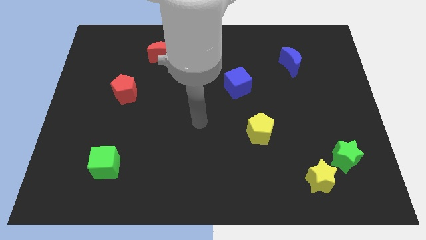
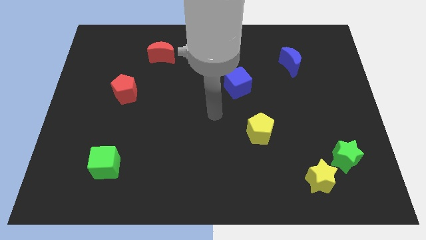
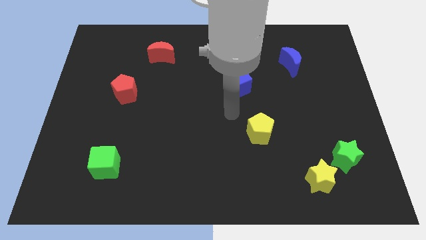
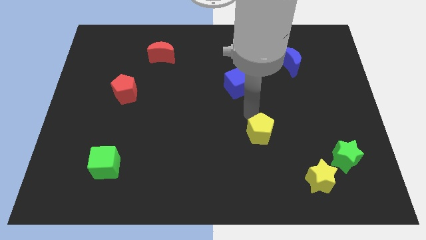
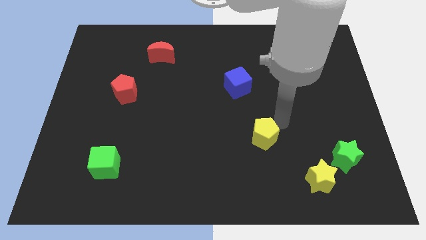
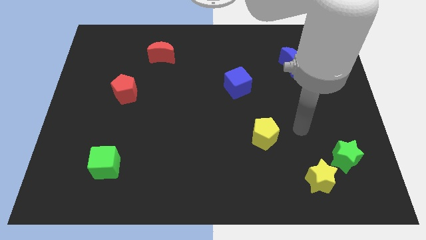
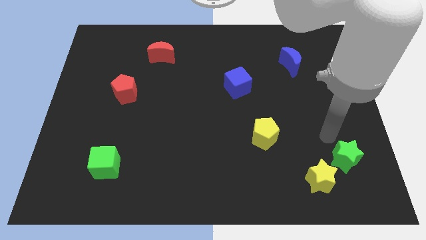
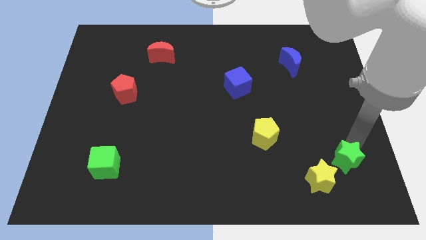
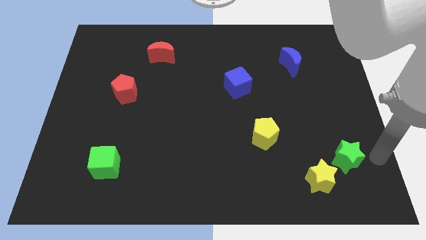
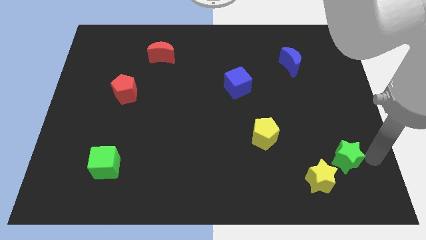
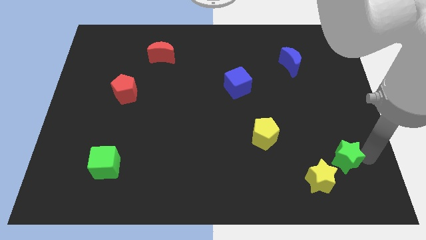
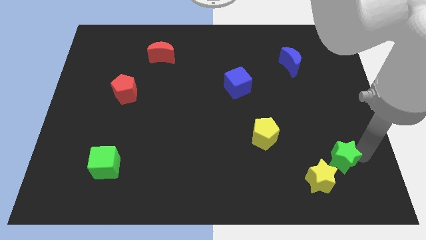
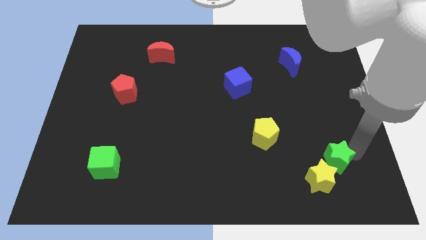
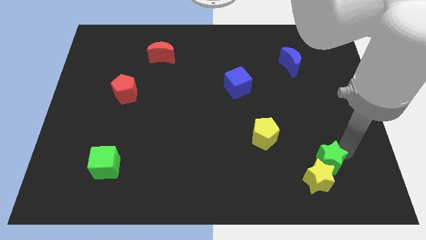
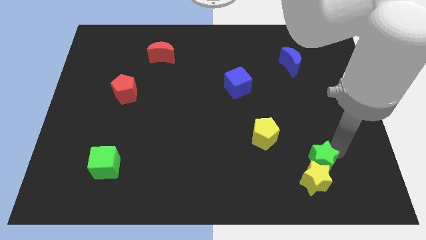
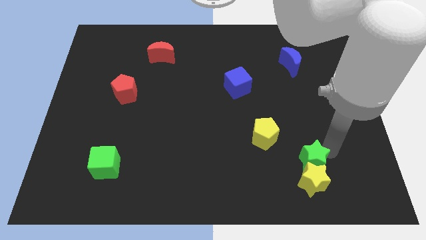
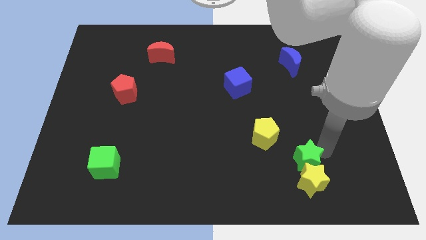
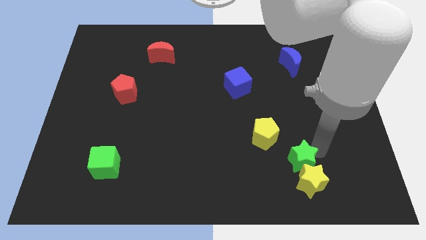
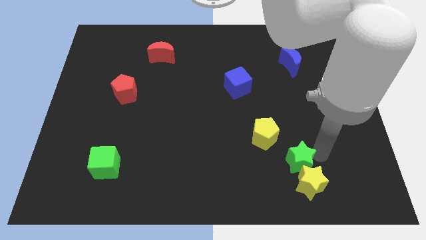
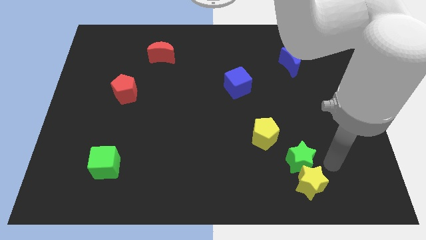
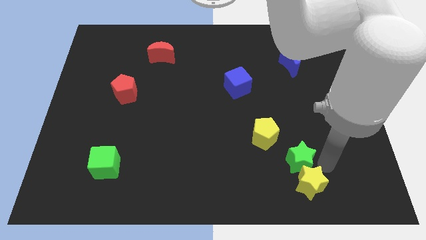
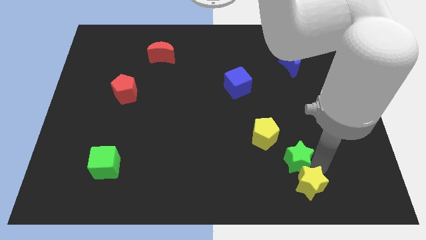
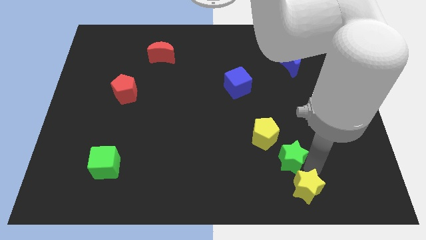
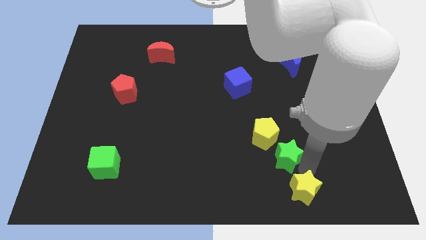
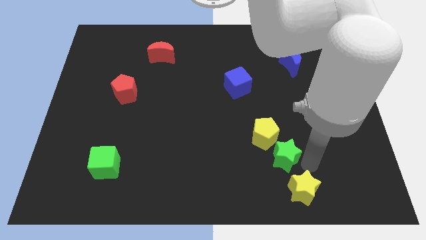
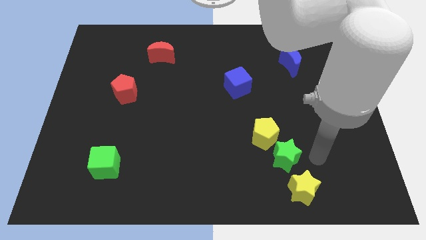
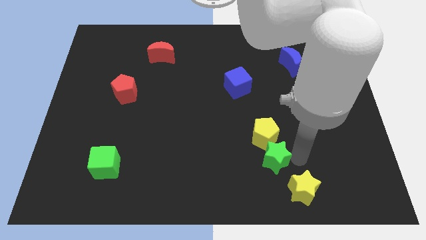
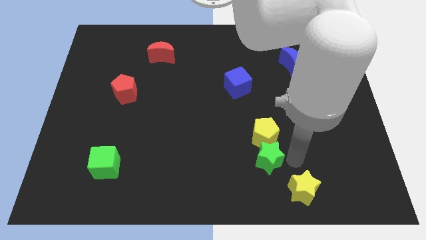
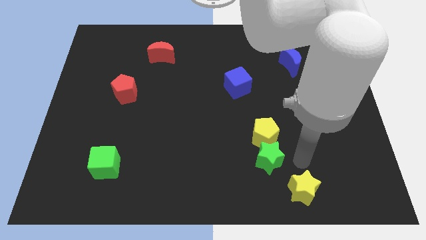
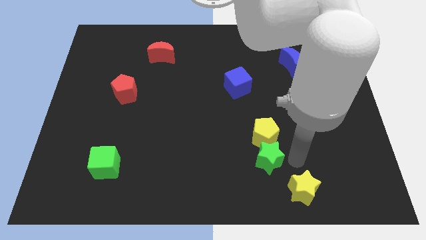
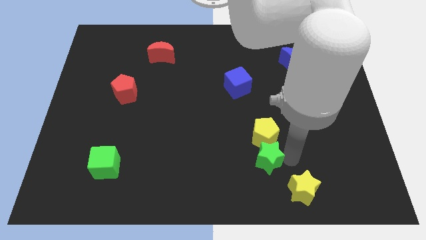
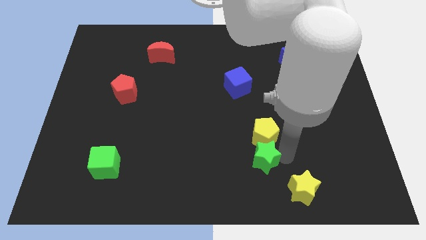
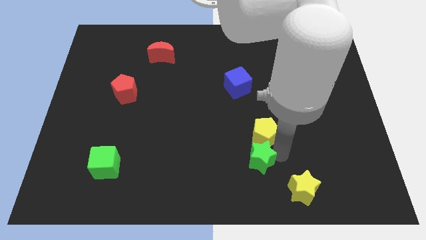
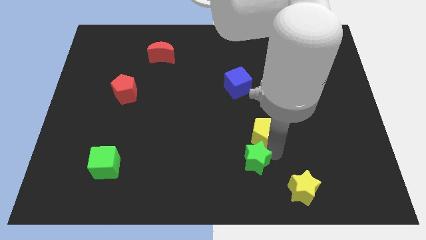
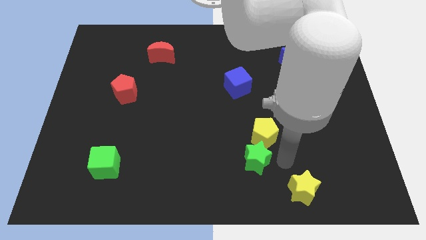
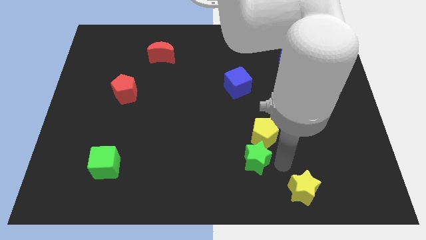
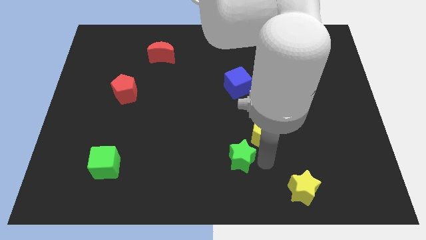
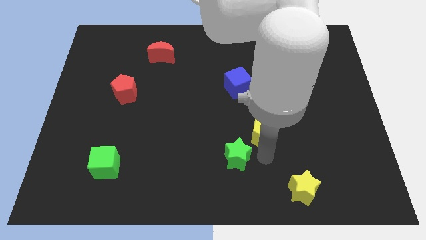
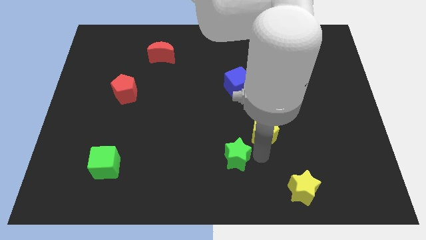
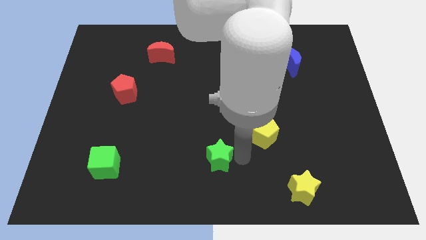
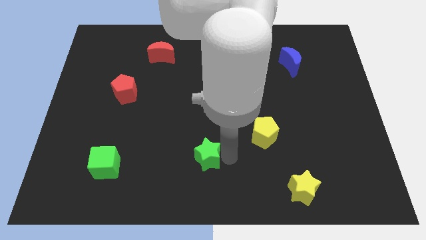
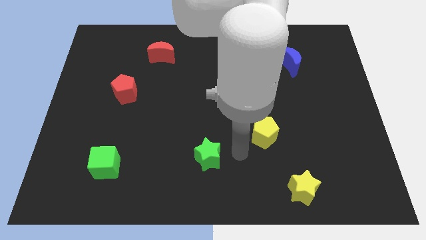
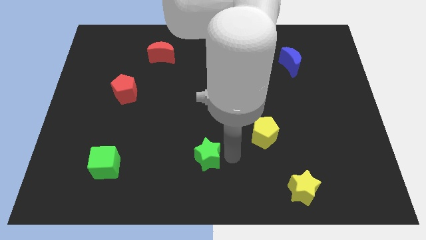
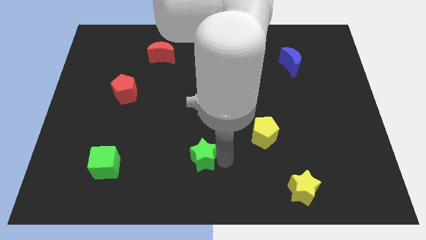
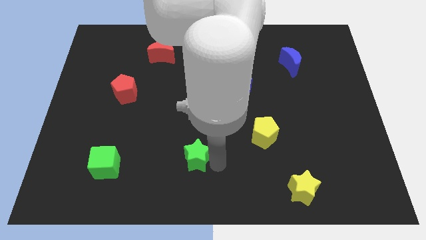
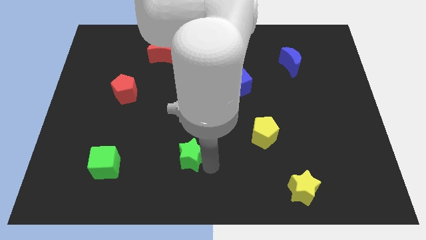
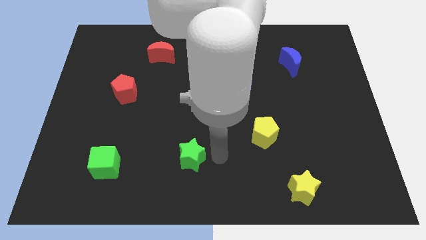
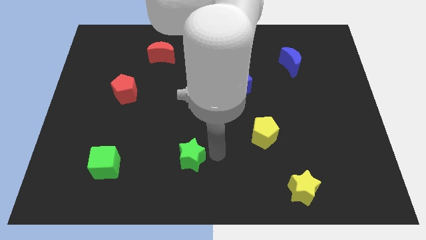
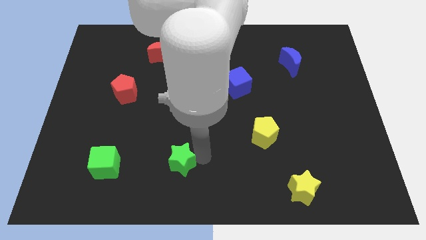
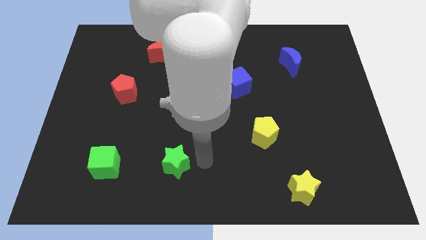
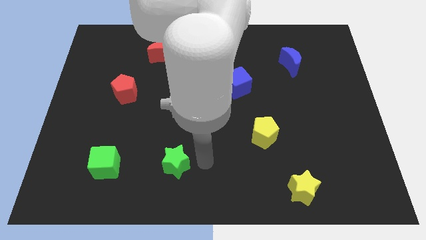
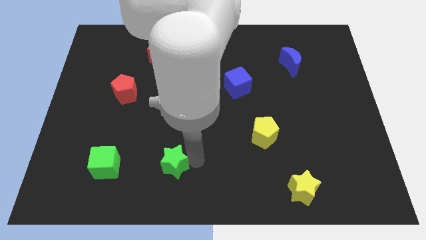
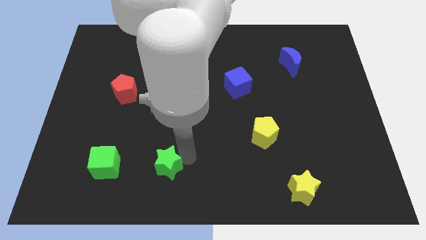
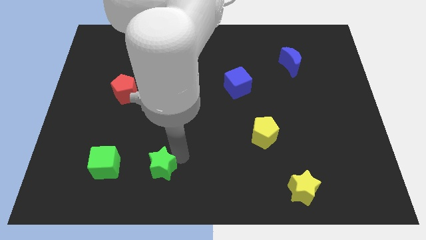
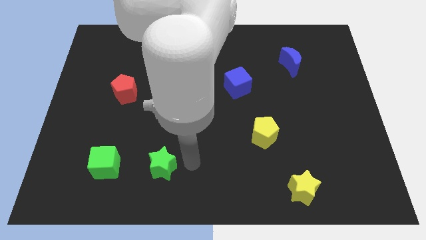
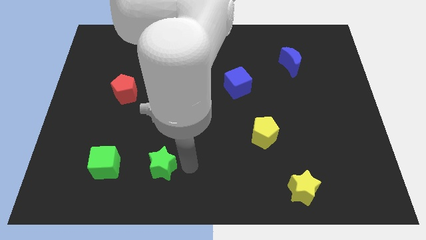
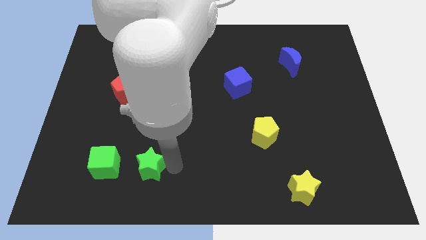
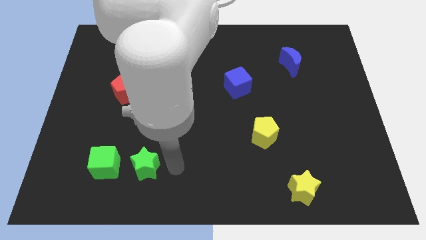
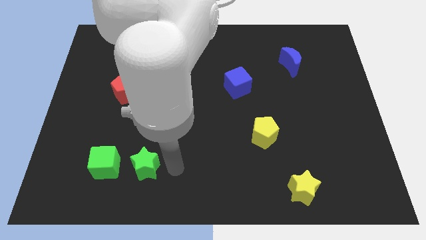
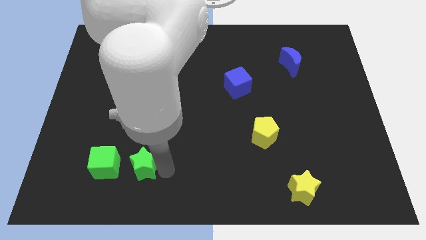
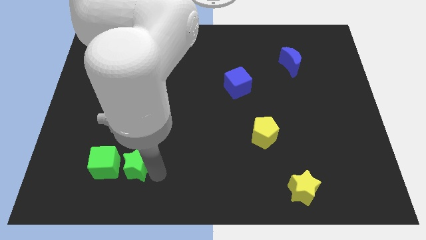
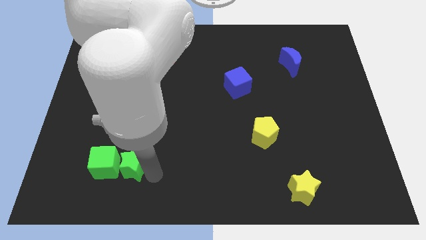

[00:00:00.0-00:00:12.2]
move the green star close to the green cube

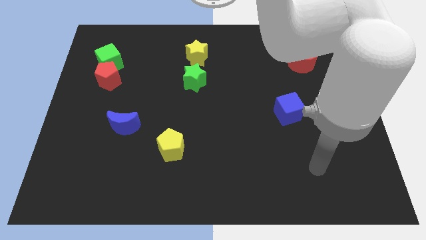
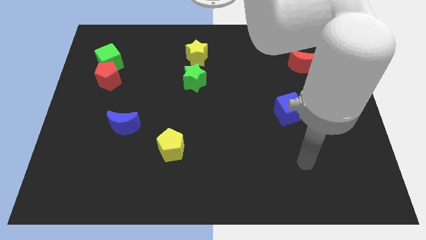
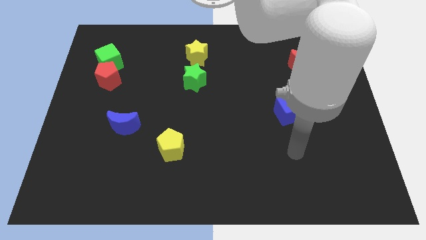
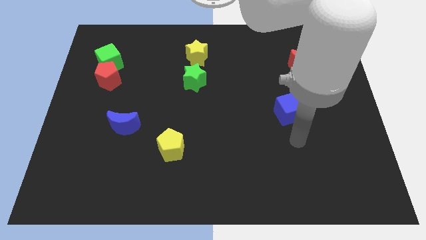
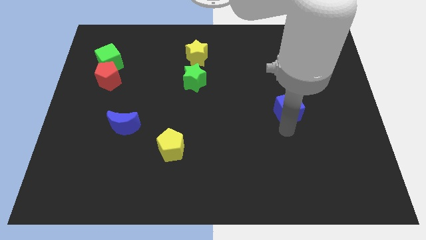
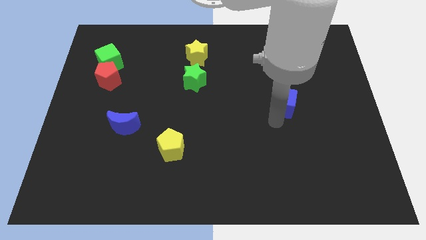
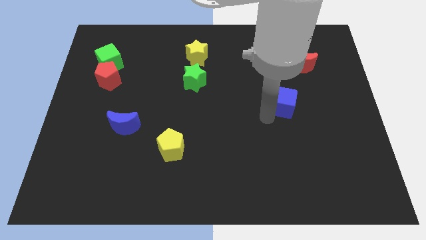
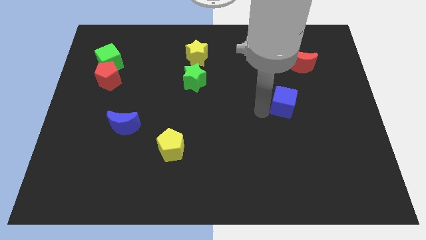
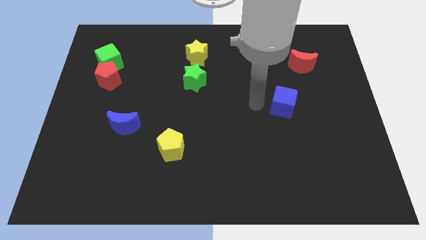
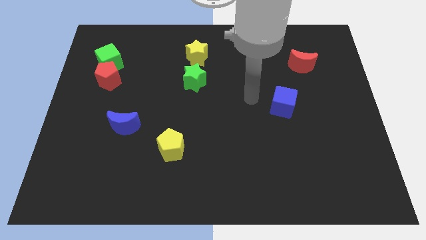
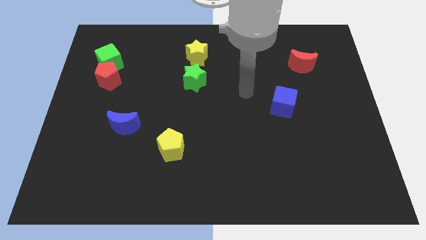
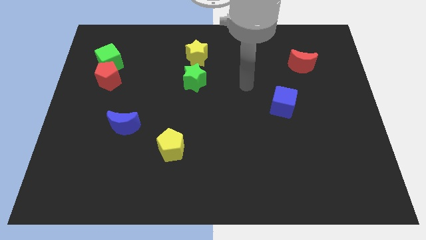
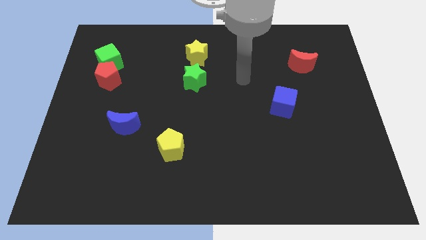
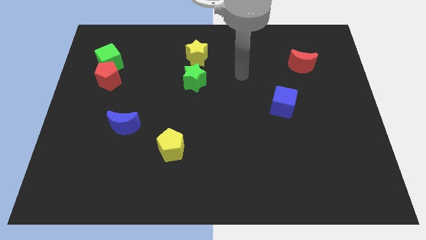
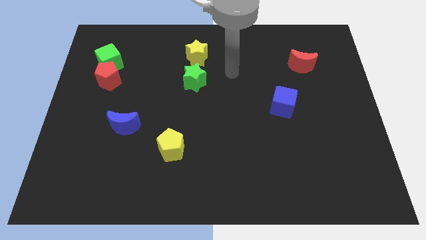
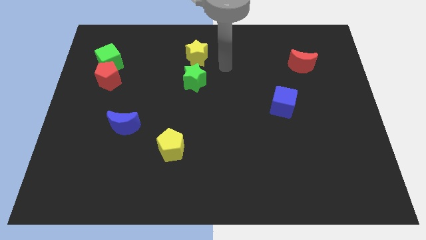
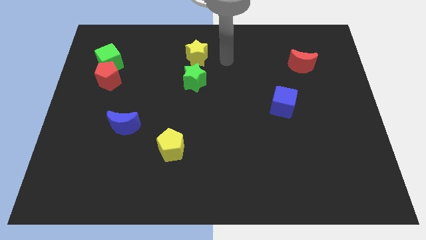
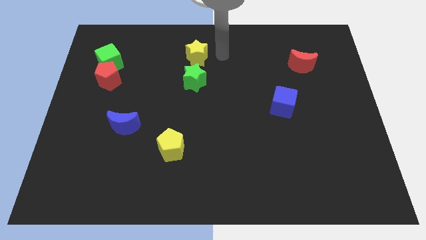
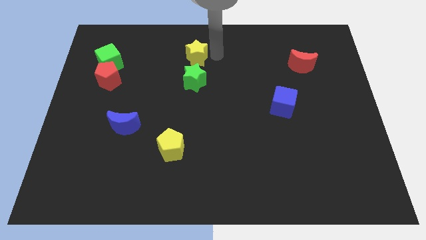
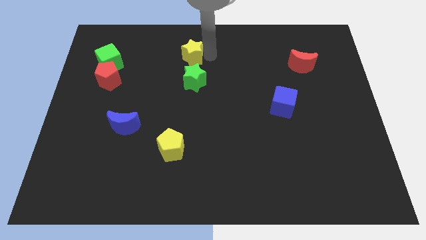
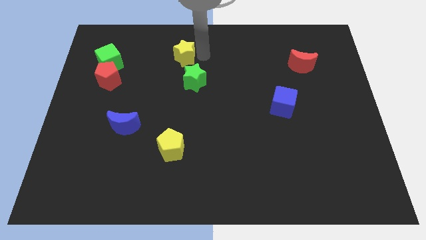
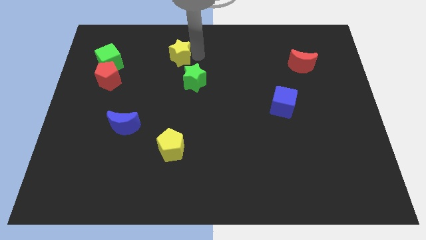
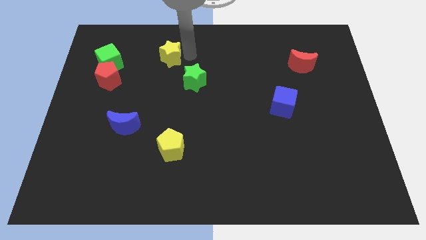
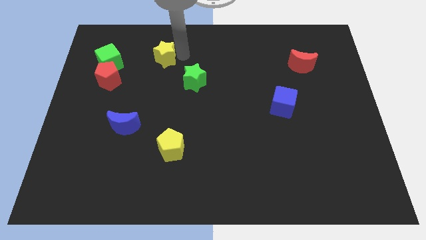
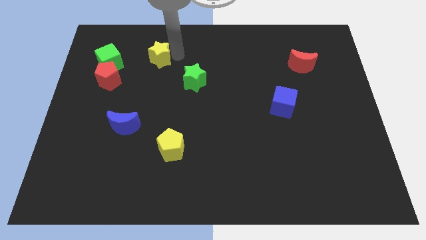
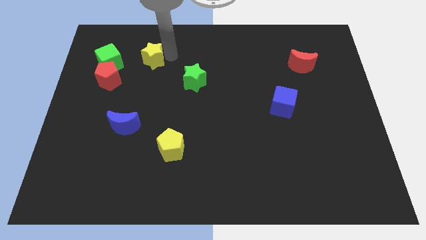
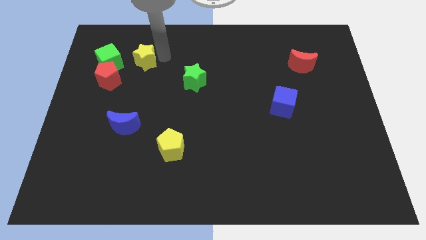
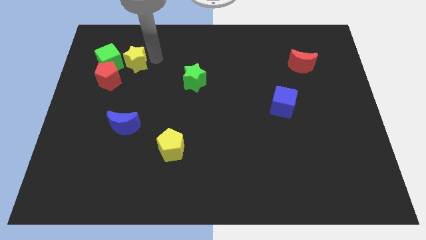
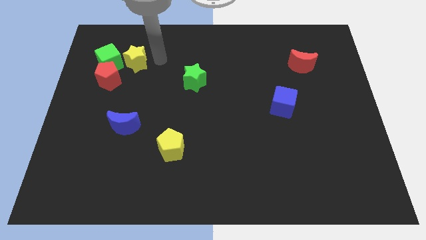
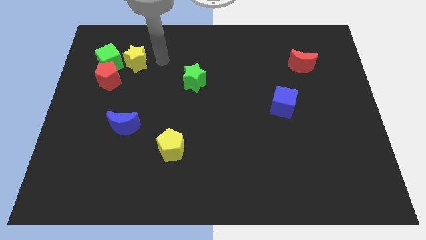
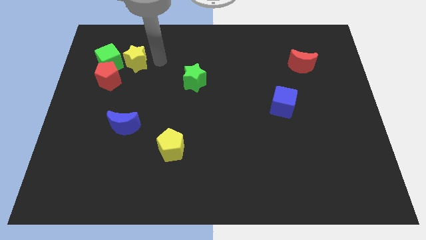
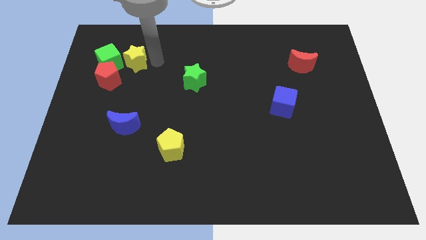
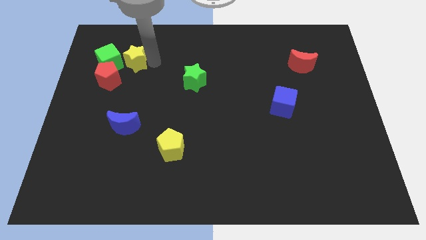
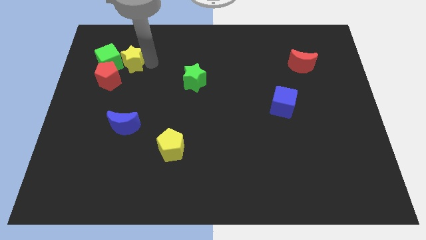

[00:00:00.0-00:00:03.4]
slide the yellow star towards the green cube
